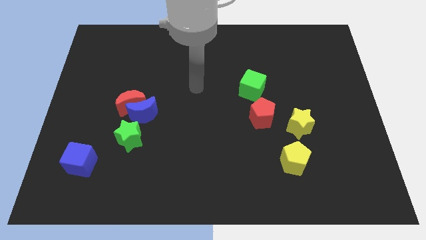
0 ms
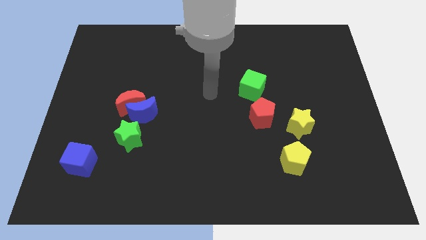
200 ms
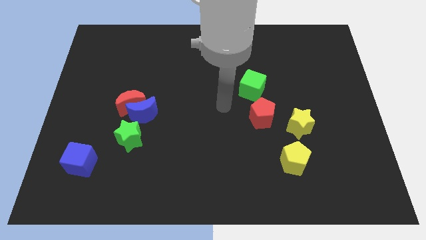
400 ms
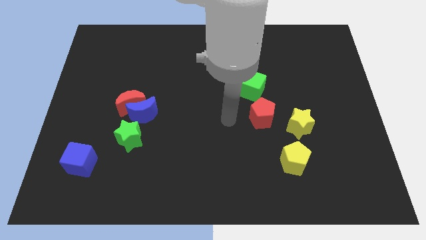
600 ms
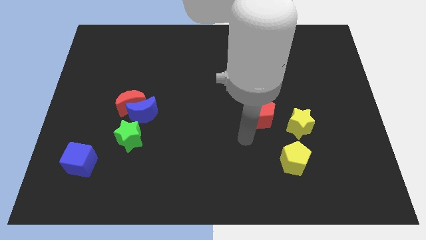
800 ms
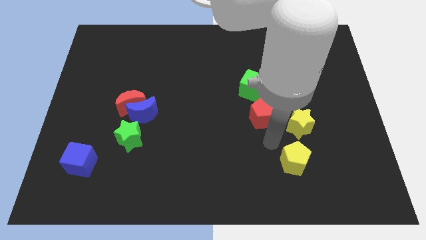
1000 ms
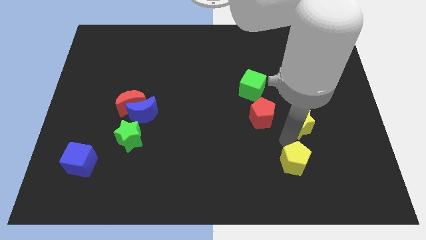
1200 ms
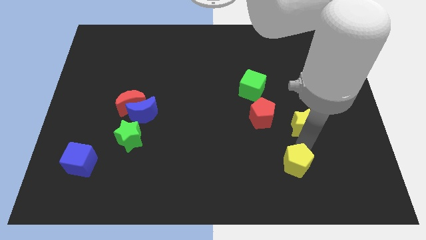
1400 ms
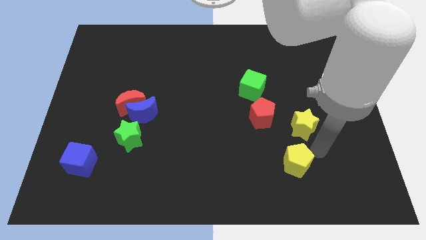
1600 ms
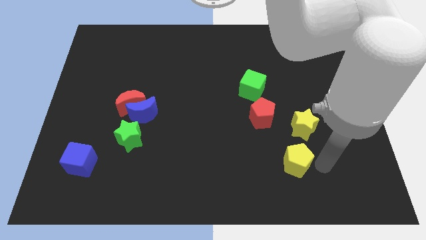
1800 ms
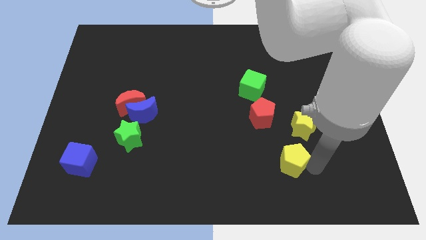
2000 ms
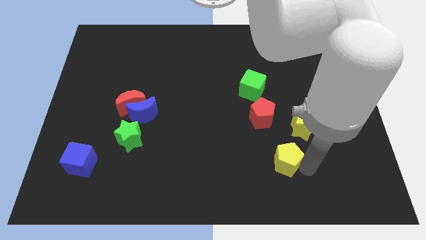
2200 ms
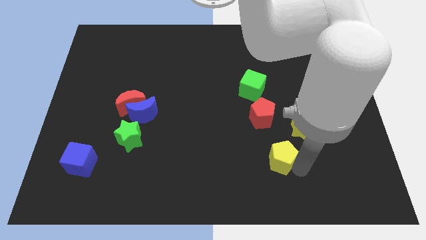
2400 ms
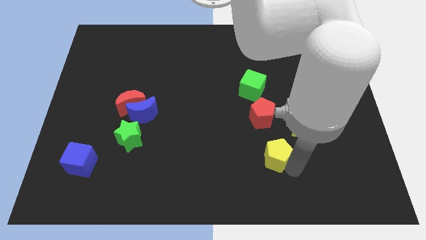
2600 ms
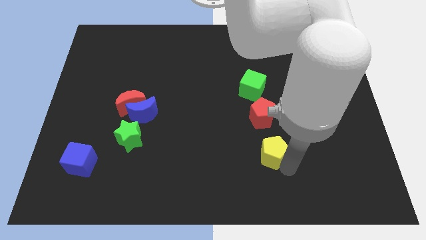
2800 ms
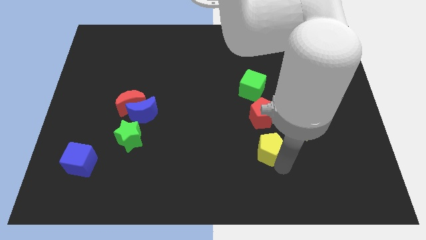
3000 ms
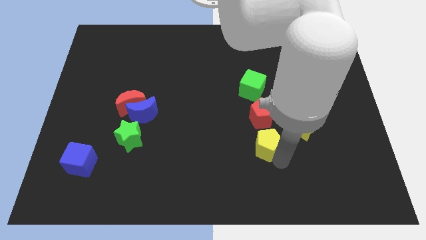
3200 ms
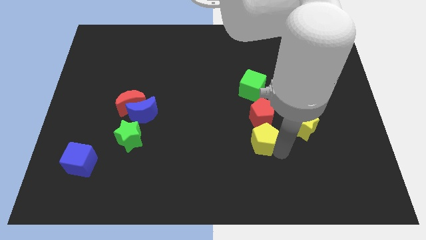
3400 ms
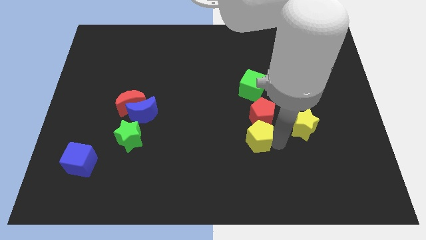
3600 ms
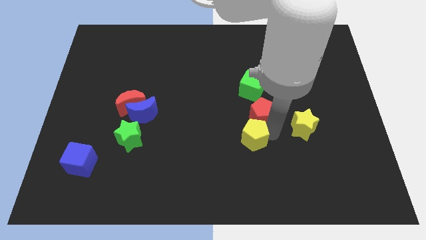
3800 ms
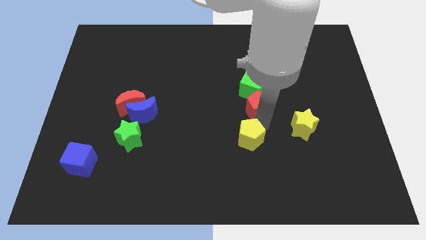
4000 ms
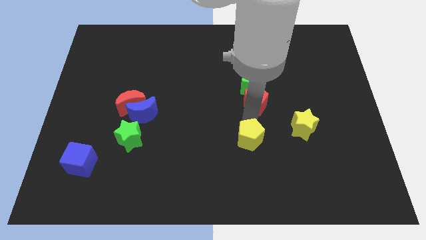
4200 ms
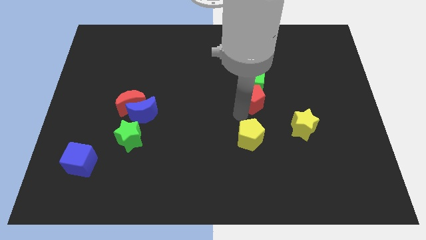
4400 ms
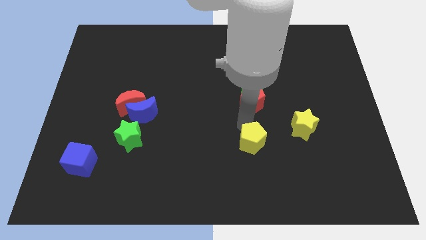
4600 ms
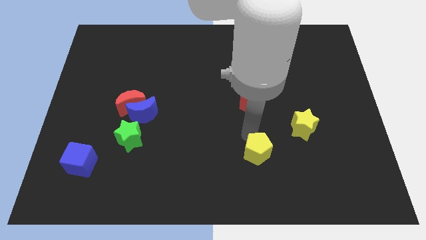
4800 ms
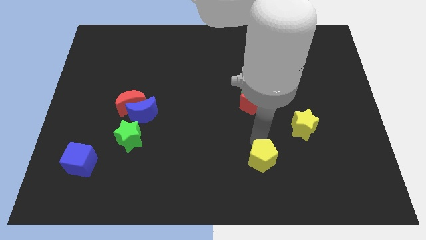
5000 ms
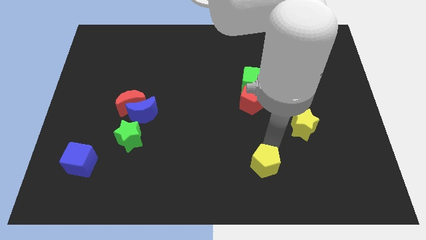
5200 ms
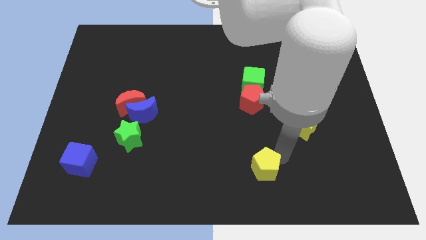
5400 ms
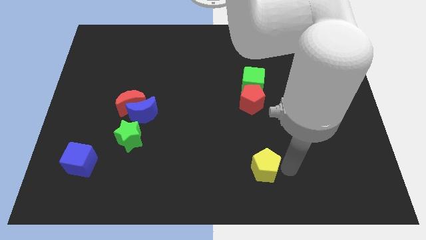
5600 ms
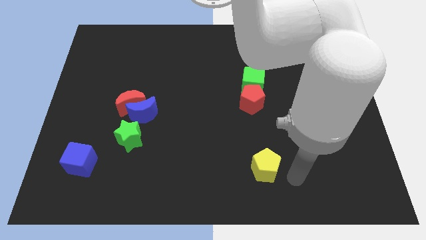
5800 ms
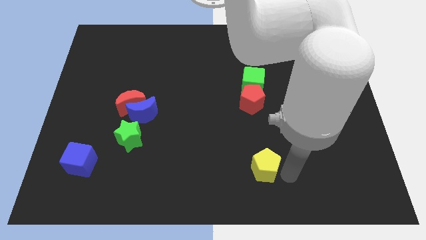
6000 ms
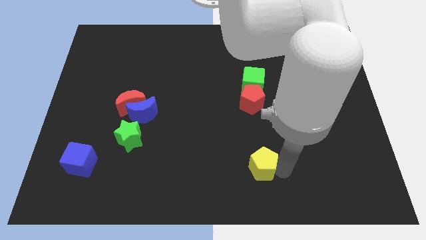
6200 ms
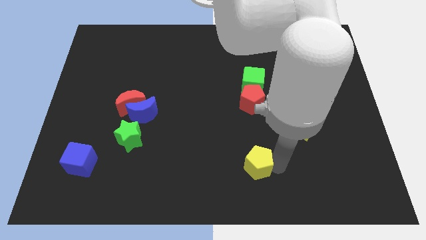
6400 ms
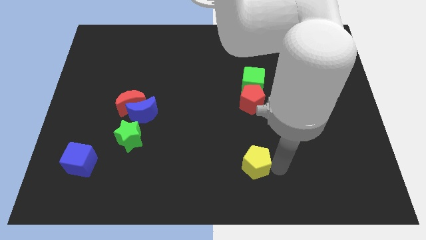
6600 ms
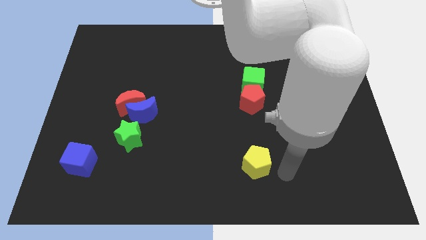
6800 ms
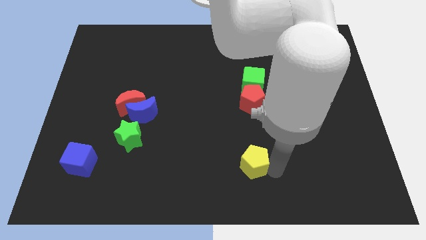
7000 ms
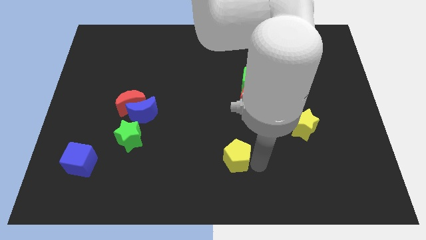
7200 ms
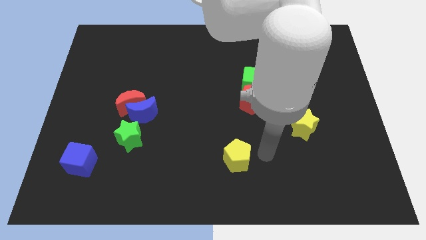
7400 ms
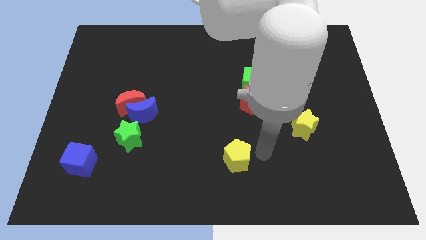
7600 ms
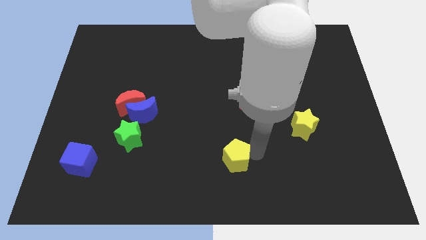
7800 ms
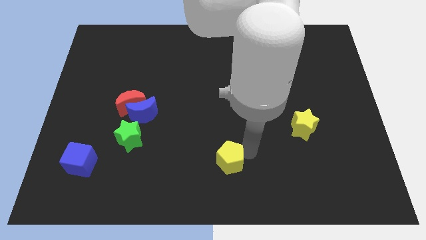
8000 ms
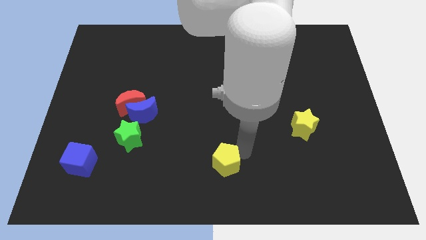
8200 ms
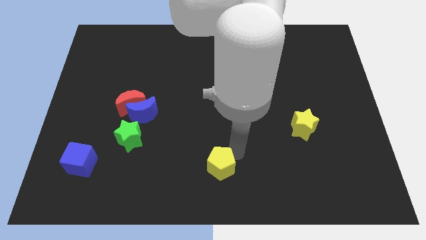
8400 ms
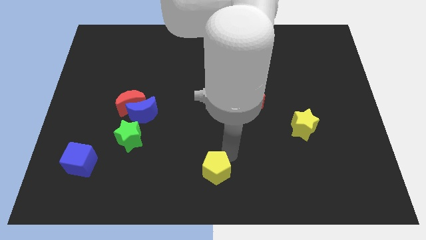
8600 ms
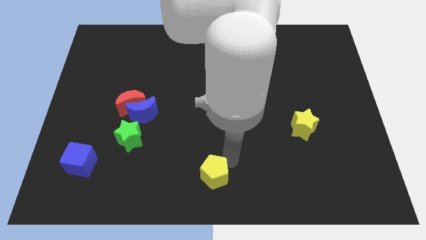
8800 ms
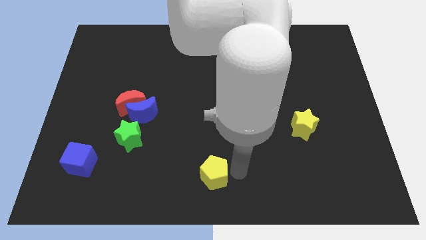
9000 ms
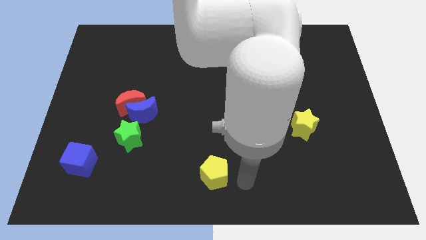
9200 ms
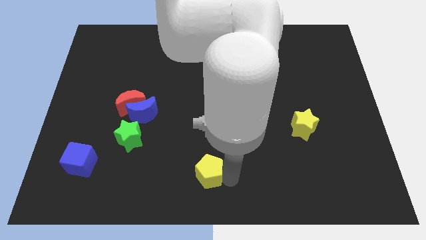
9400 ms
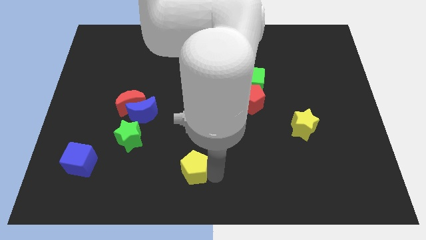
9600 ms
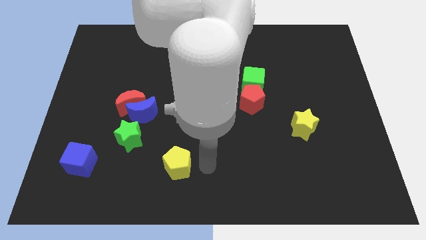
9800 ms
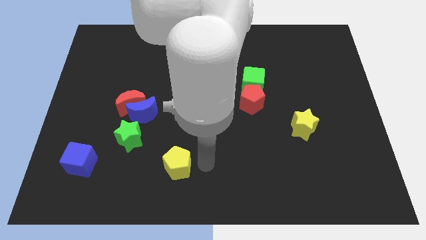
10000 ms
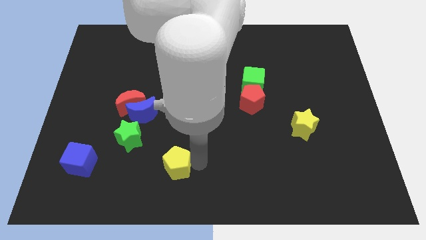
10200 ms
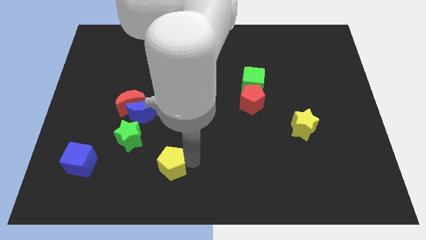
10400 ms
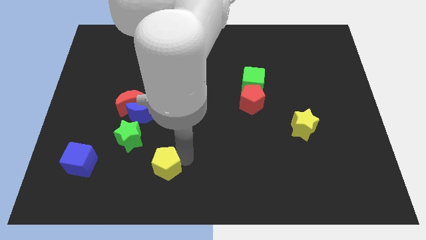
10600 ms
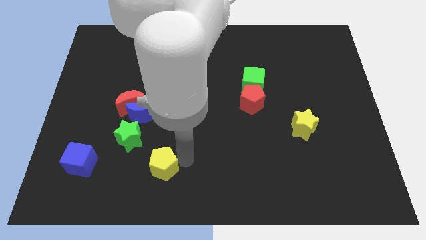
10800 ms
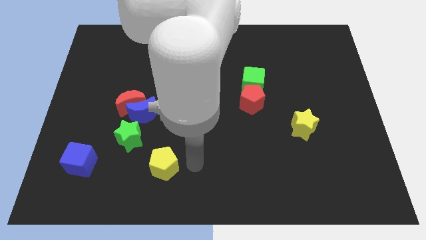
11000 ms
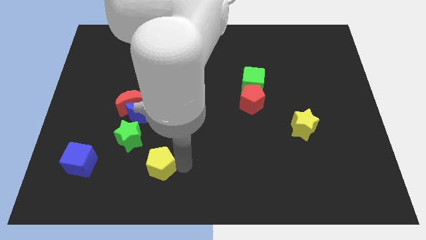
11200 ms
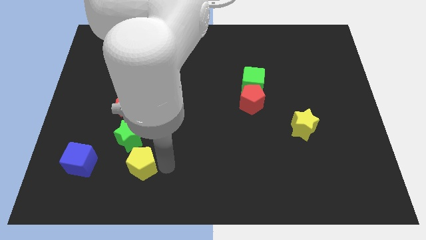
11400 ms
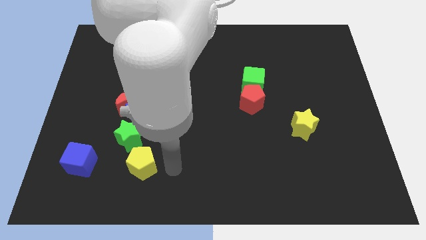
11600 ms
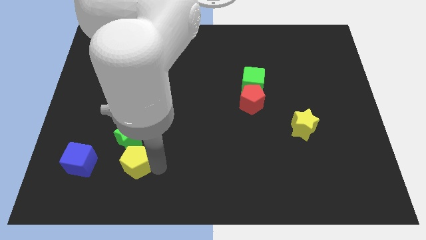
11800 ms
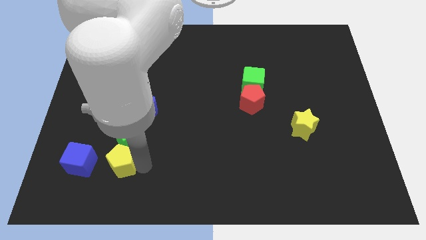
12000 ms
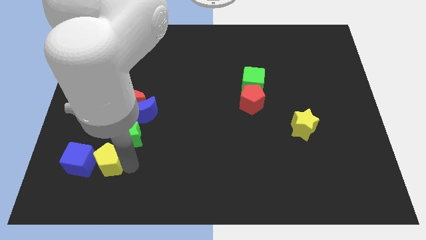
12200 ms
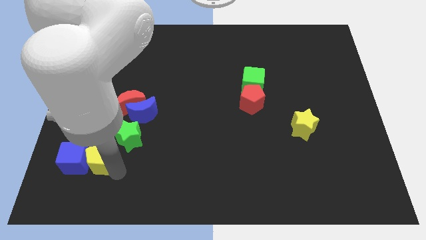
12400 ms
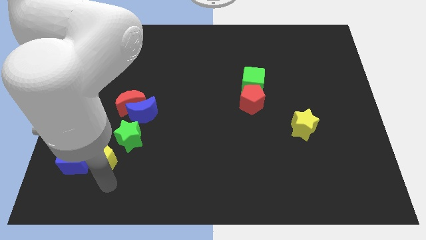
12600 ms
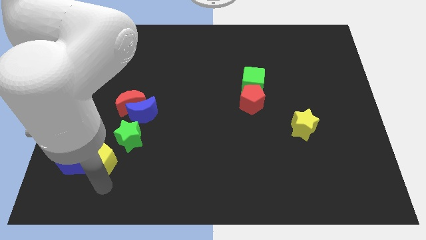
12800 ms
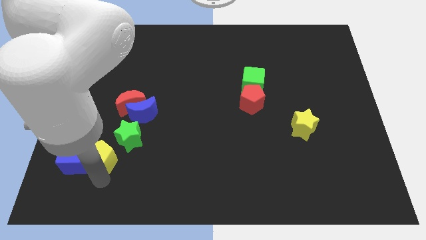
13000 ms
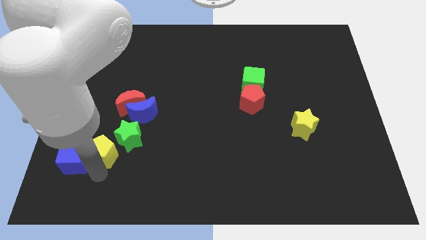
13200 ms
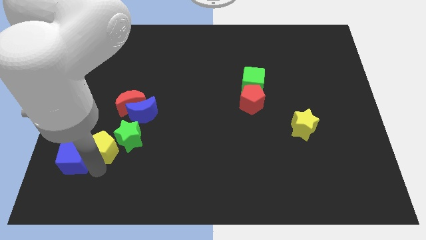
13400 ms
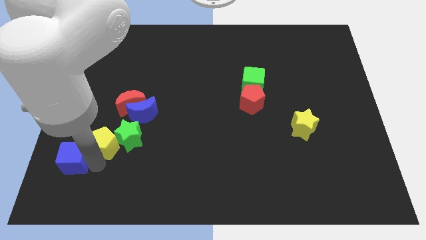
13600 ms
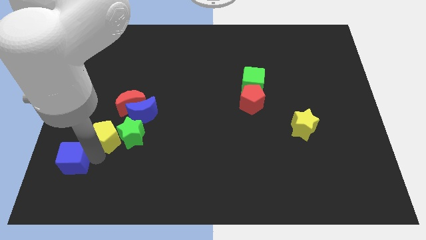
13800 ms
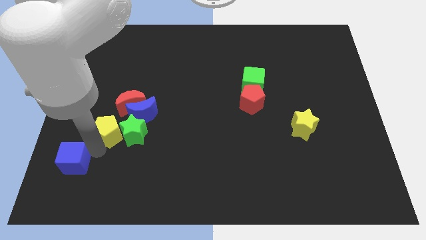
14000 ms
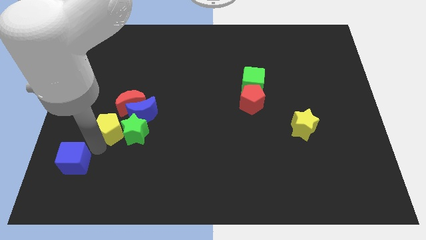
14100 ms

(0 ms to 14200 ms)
slide the yellow pentagon to the left of the blue moon
